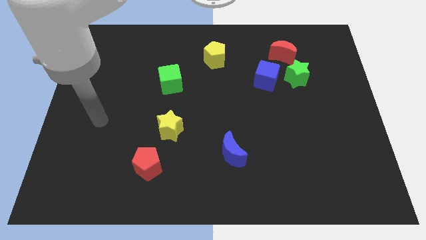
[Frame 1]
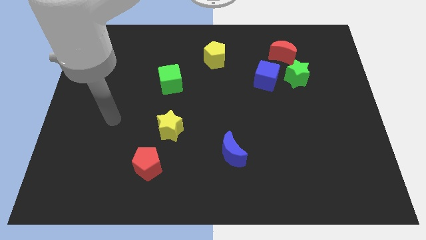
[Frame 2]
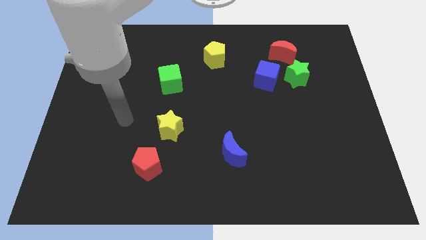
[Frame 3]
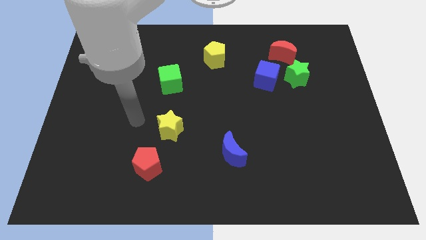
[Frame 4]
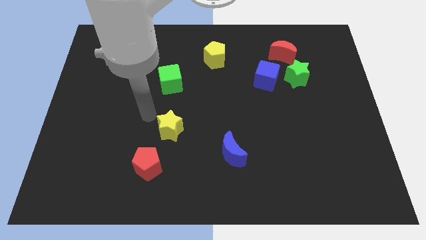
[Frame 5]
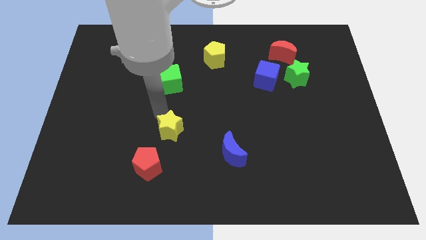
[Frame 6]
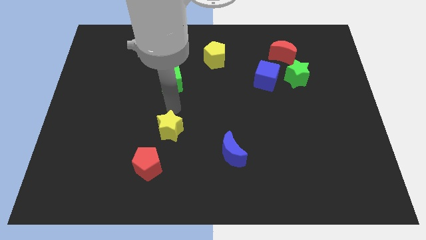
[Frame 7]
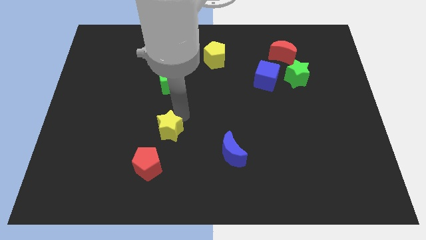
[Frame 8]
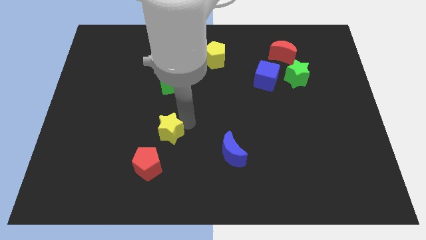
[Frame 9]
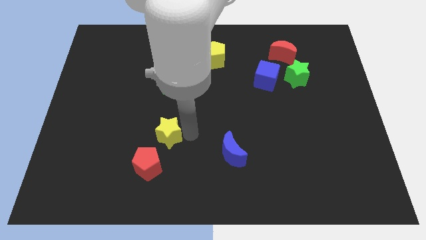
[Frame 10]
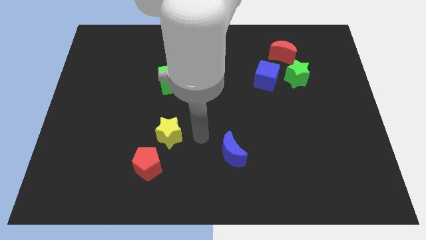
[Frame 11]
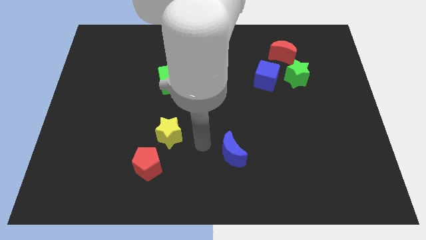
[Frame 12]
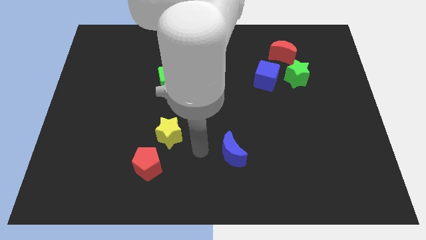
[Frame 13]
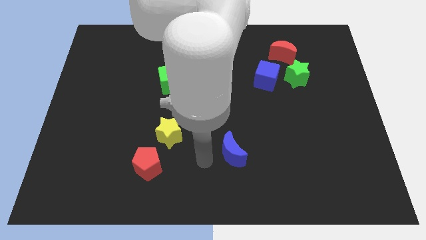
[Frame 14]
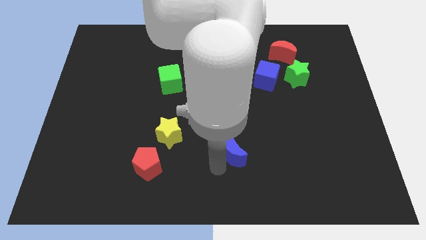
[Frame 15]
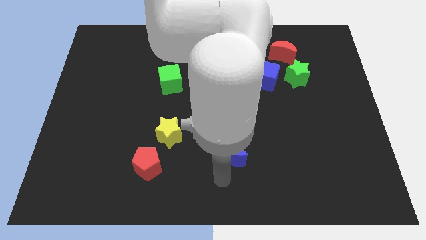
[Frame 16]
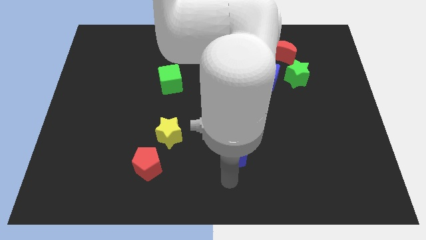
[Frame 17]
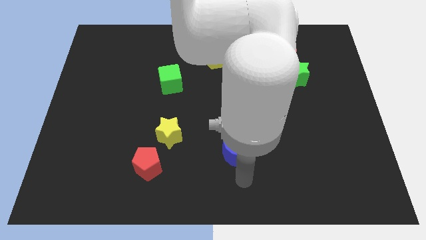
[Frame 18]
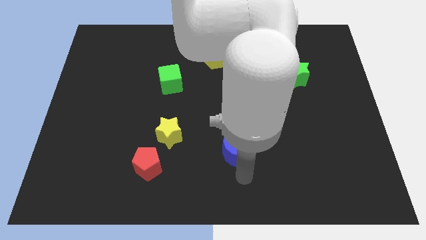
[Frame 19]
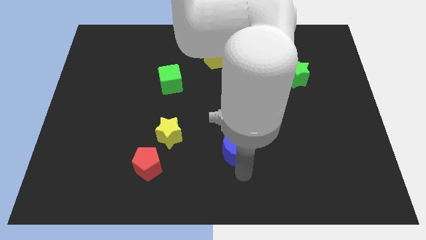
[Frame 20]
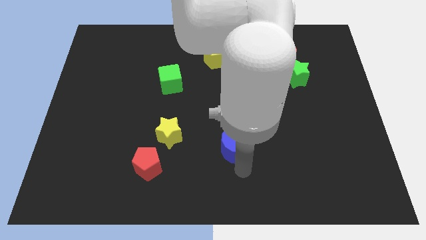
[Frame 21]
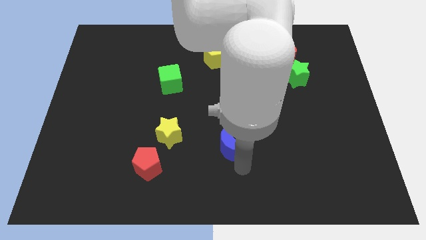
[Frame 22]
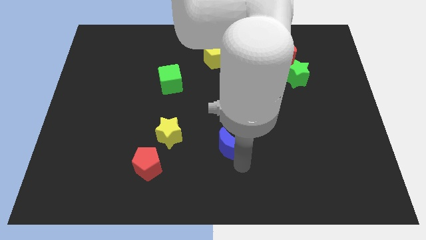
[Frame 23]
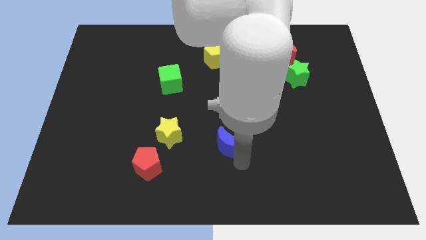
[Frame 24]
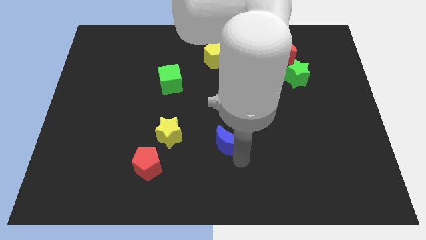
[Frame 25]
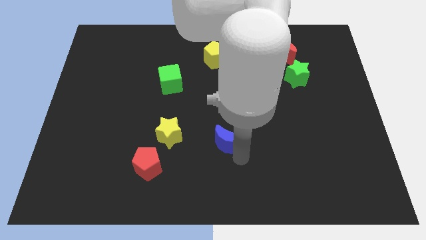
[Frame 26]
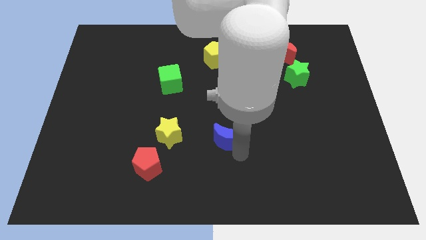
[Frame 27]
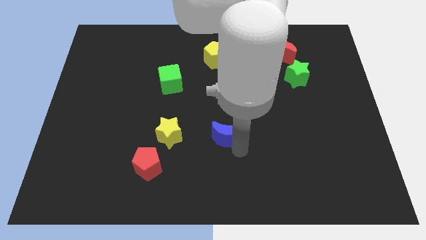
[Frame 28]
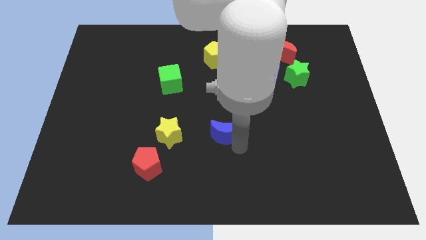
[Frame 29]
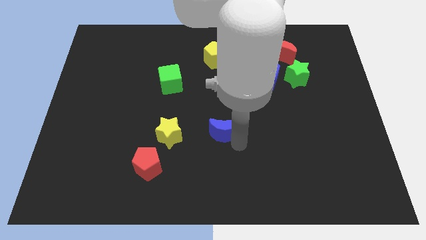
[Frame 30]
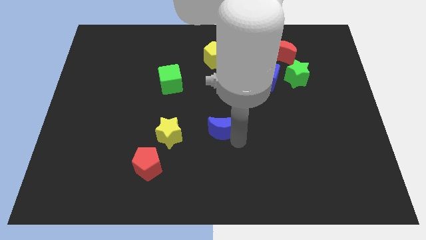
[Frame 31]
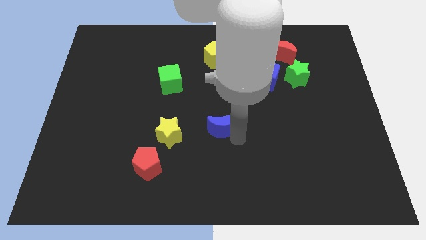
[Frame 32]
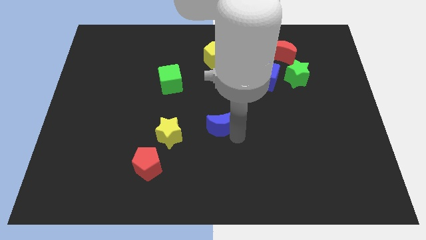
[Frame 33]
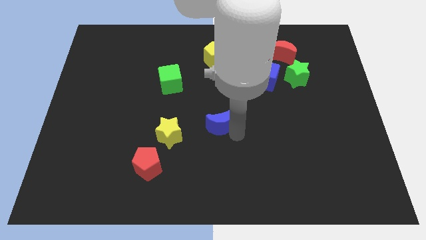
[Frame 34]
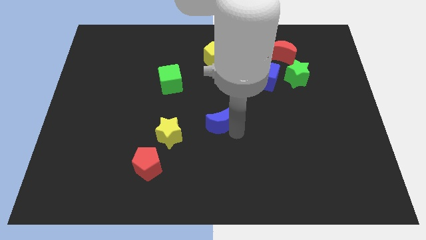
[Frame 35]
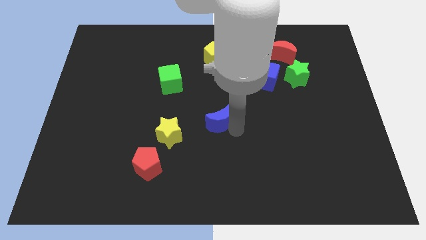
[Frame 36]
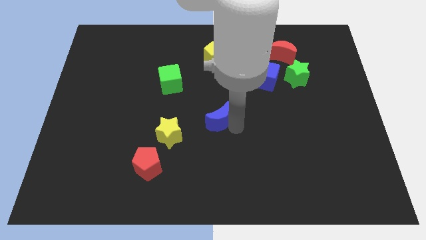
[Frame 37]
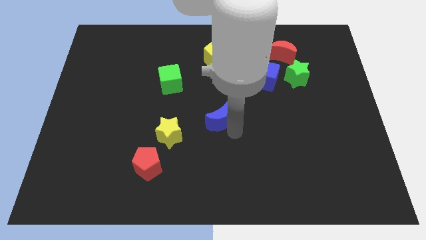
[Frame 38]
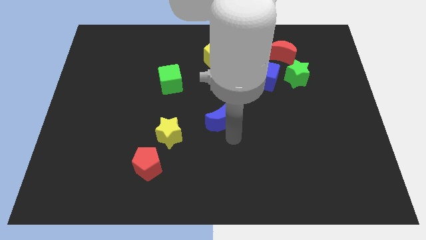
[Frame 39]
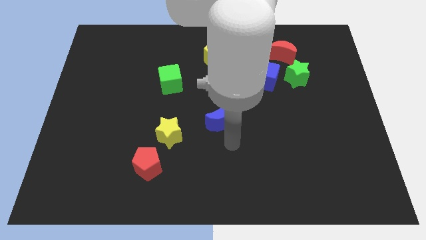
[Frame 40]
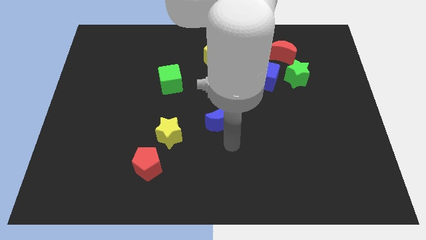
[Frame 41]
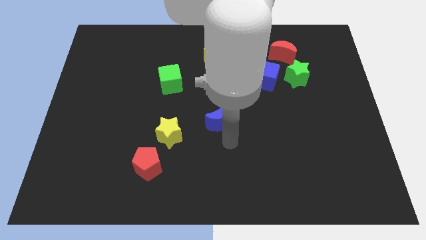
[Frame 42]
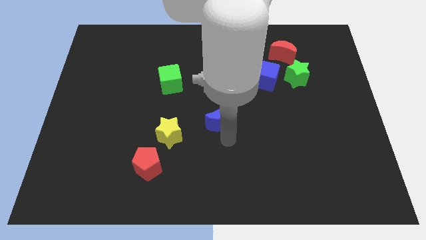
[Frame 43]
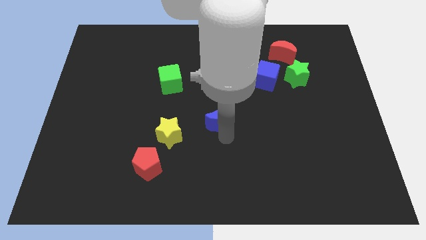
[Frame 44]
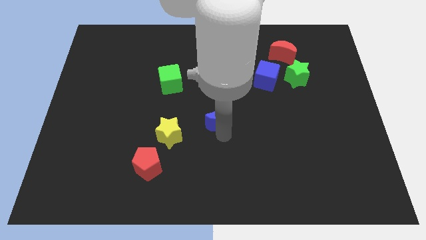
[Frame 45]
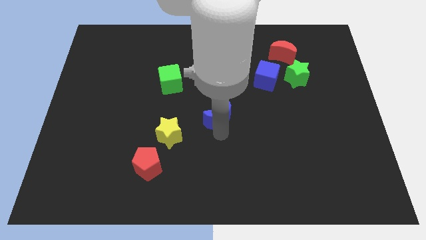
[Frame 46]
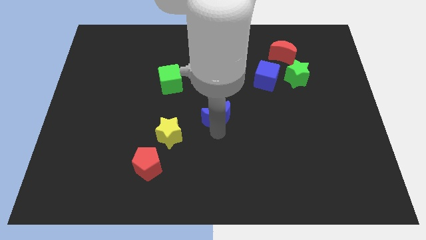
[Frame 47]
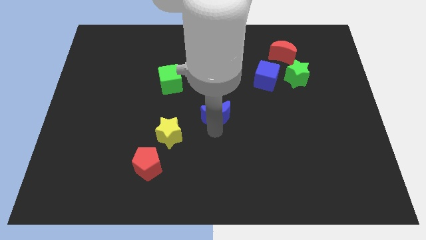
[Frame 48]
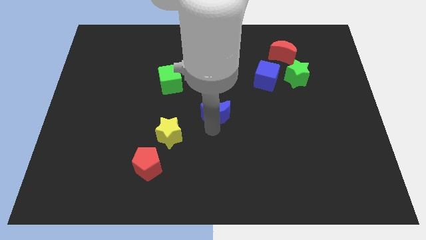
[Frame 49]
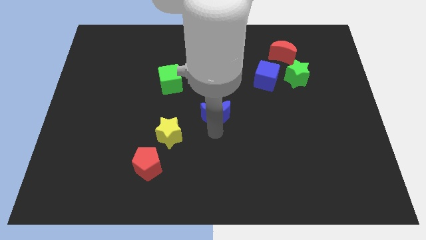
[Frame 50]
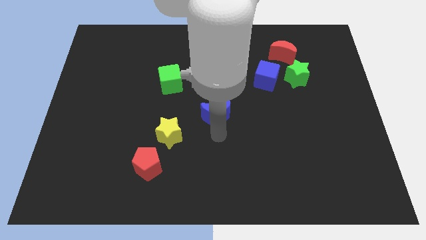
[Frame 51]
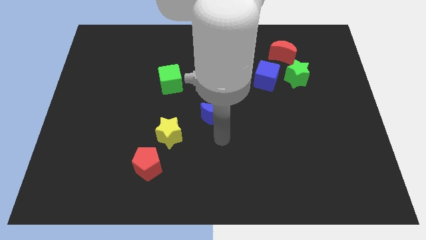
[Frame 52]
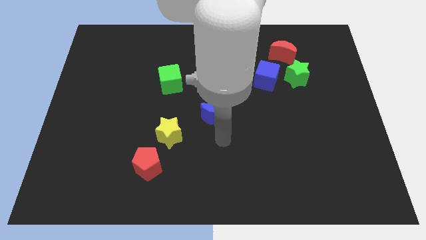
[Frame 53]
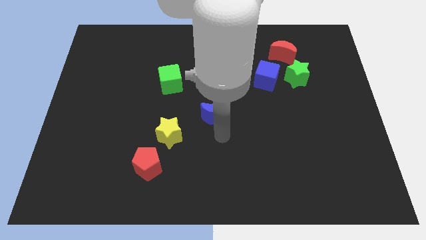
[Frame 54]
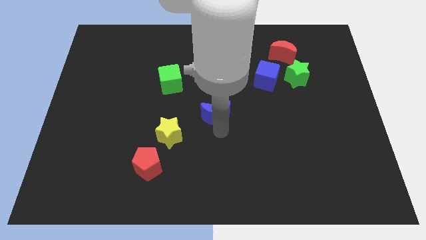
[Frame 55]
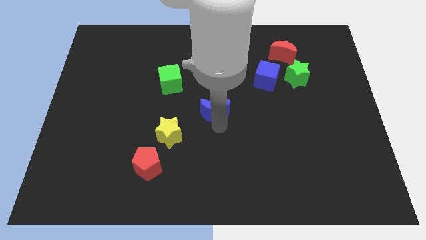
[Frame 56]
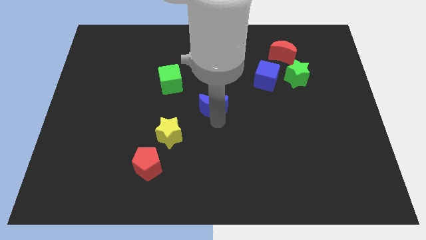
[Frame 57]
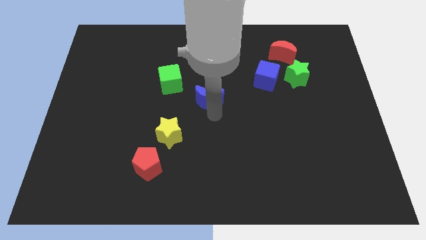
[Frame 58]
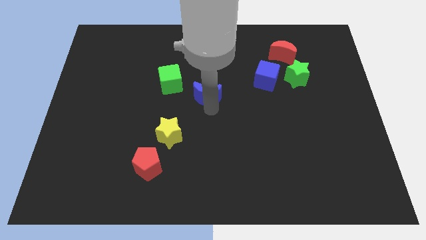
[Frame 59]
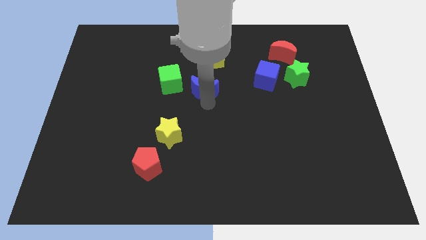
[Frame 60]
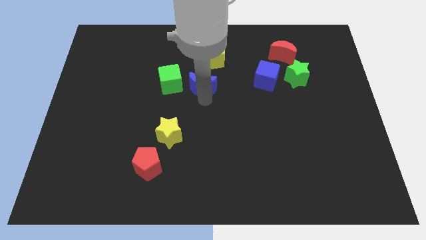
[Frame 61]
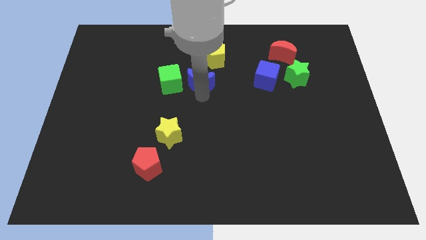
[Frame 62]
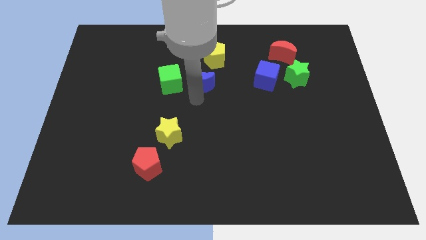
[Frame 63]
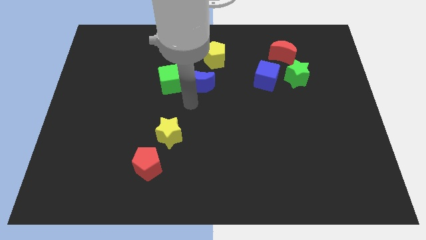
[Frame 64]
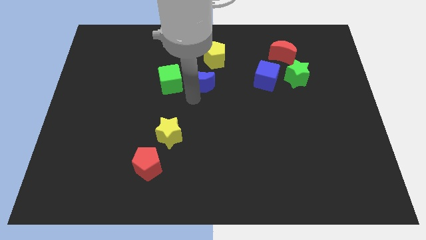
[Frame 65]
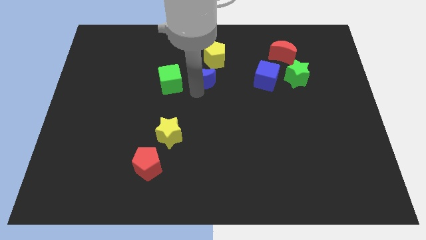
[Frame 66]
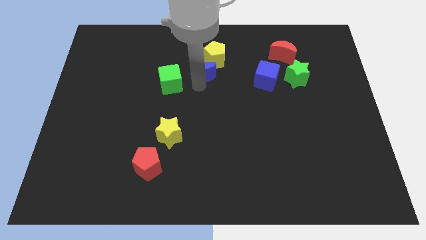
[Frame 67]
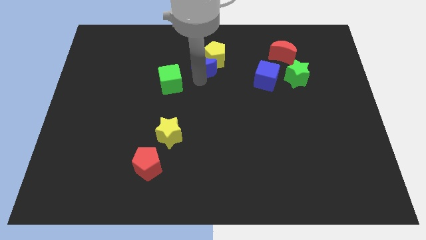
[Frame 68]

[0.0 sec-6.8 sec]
put the blue moon next to the yellow pentagon
